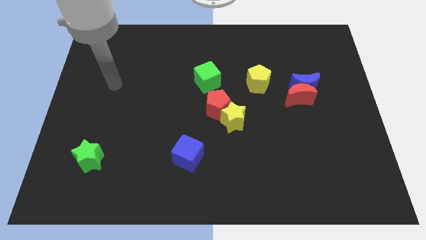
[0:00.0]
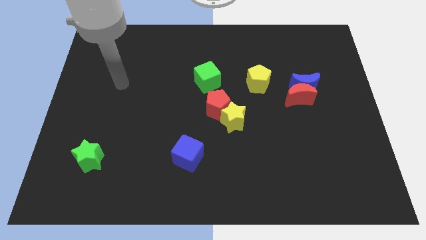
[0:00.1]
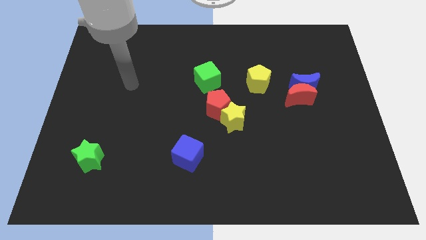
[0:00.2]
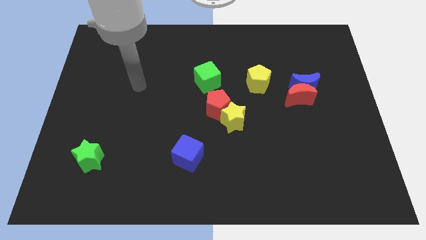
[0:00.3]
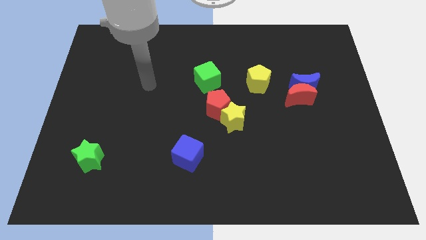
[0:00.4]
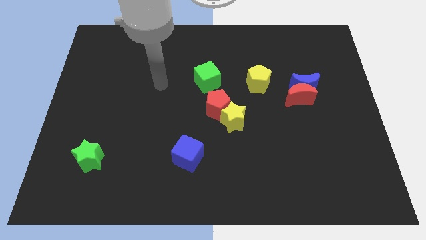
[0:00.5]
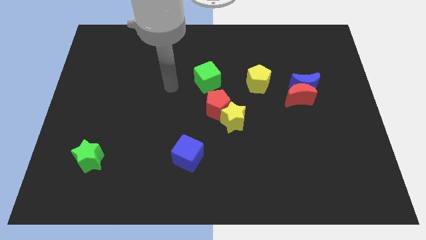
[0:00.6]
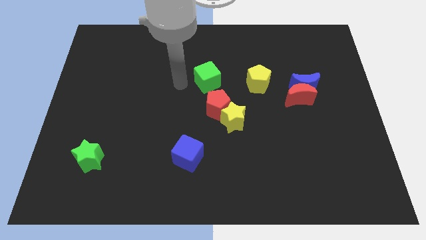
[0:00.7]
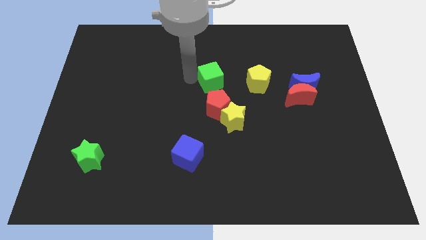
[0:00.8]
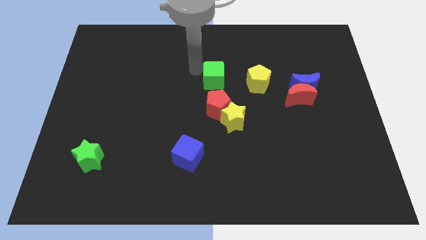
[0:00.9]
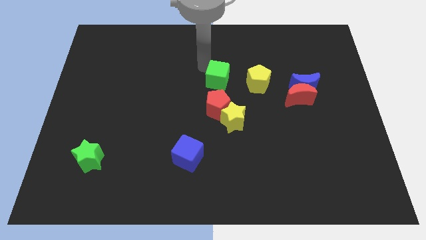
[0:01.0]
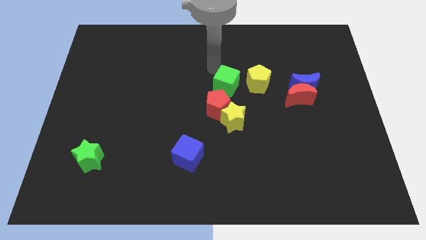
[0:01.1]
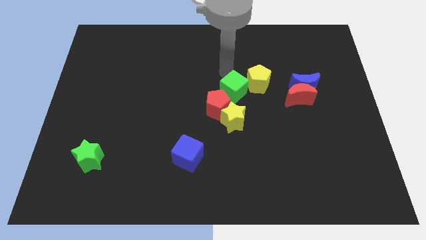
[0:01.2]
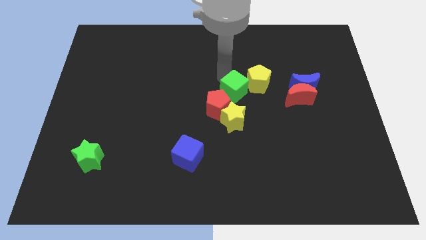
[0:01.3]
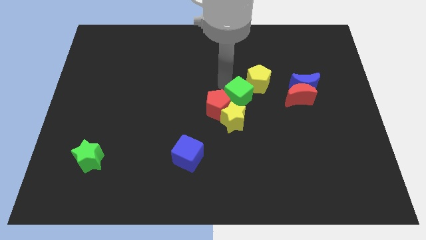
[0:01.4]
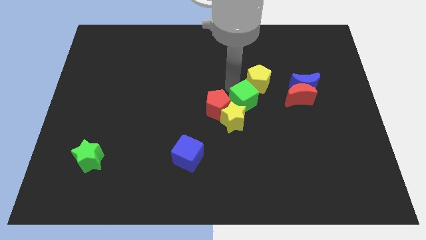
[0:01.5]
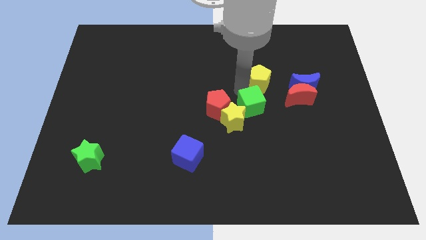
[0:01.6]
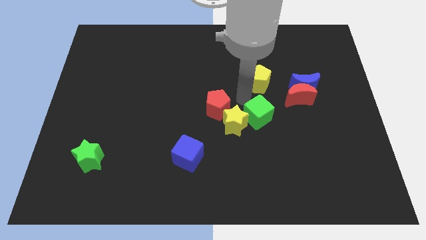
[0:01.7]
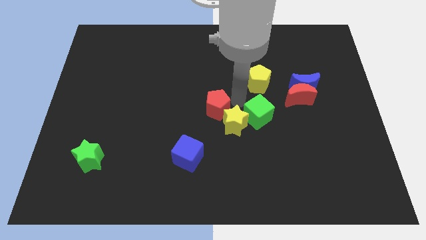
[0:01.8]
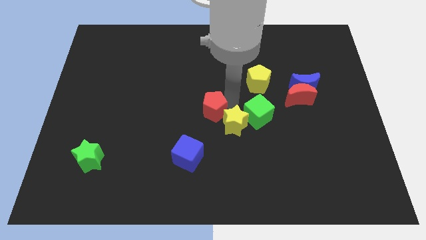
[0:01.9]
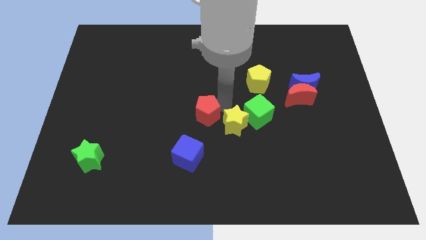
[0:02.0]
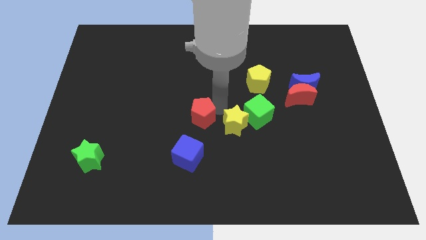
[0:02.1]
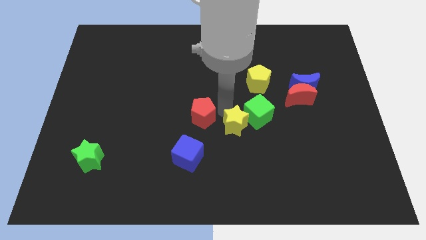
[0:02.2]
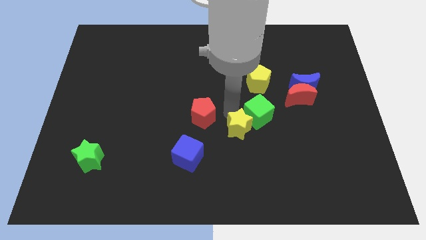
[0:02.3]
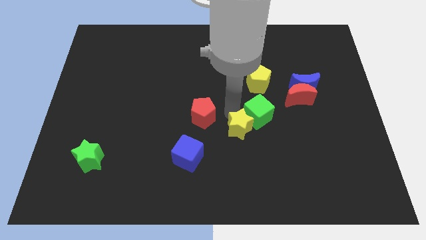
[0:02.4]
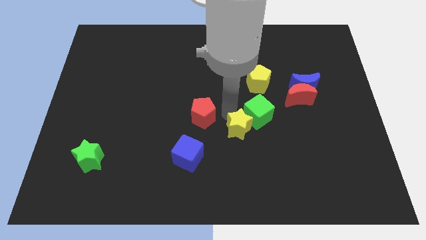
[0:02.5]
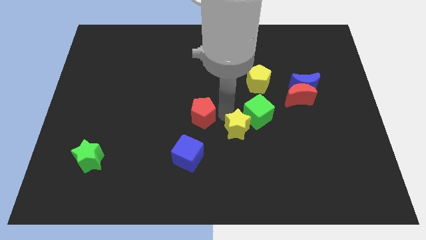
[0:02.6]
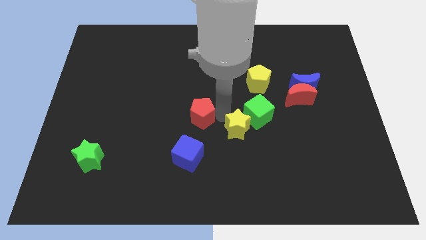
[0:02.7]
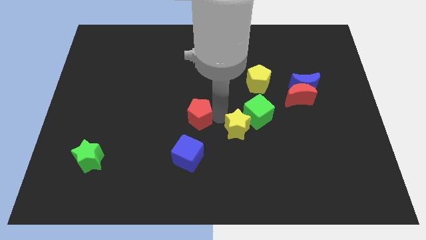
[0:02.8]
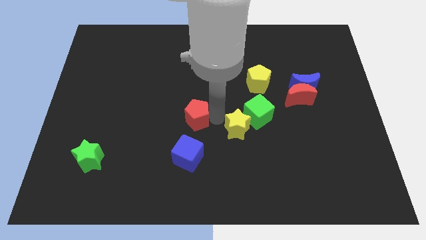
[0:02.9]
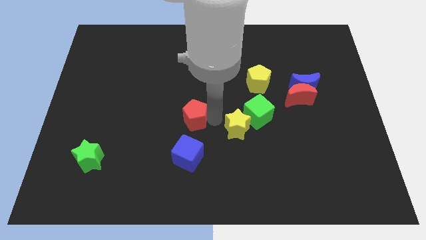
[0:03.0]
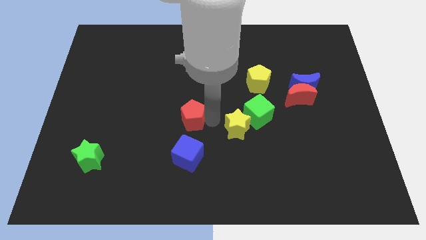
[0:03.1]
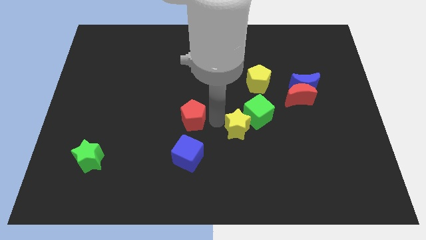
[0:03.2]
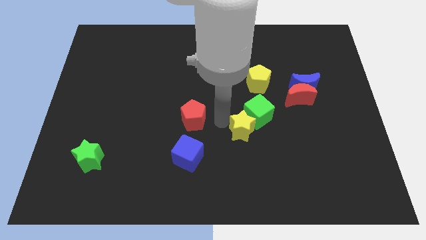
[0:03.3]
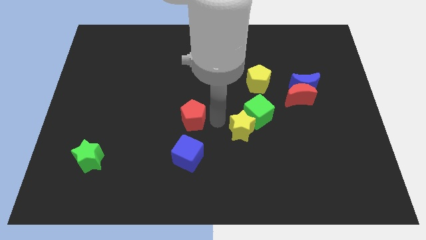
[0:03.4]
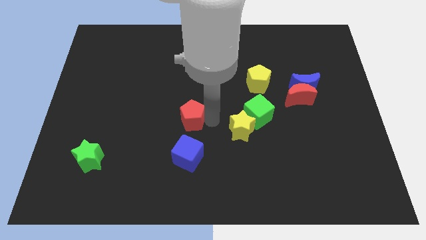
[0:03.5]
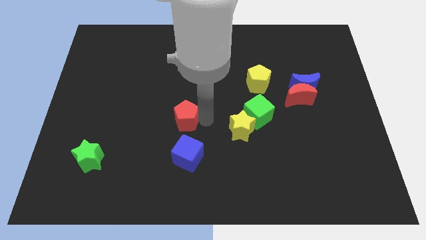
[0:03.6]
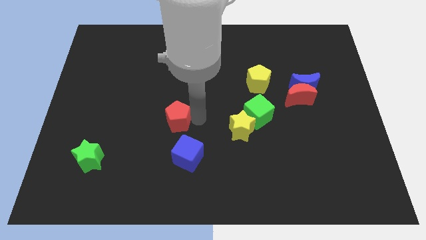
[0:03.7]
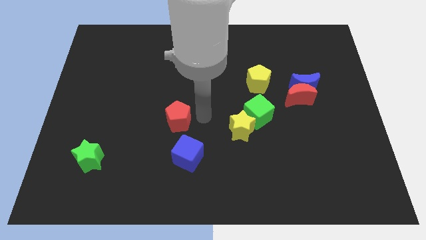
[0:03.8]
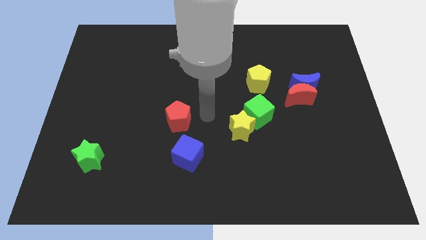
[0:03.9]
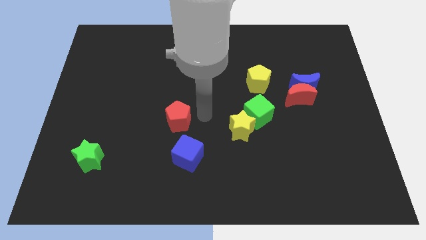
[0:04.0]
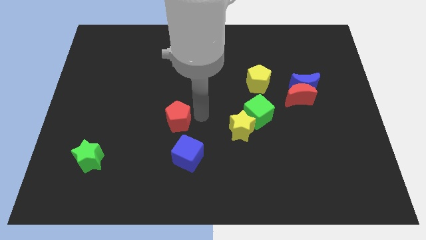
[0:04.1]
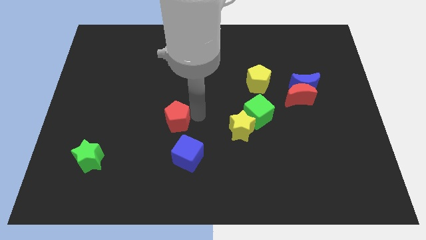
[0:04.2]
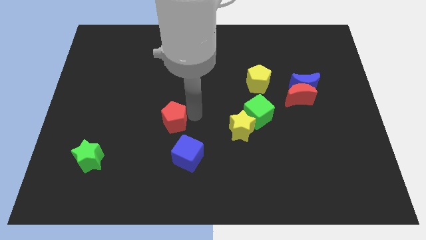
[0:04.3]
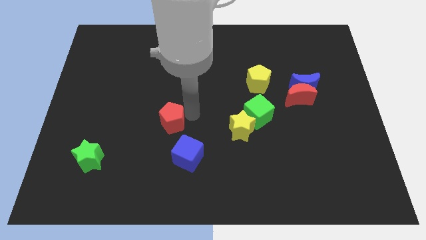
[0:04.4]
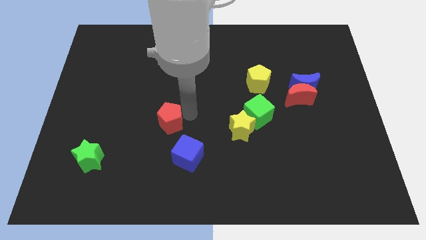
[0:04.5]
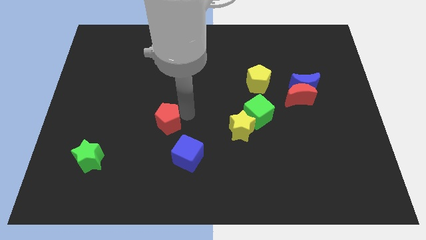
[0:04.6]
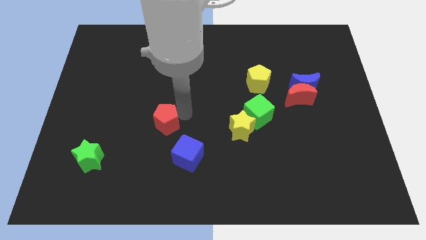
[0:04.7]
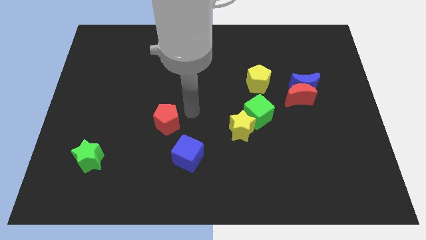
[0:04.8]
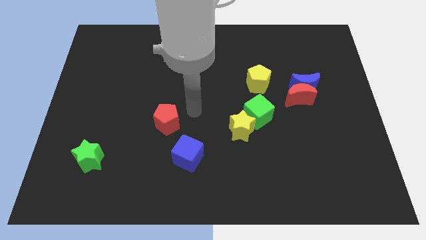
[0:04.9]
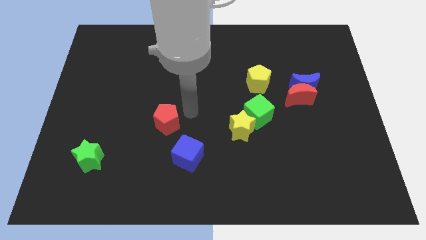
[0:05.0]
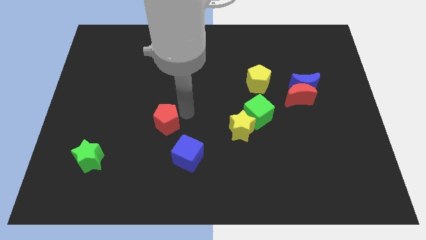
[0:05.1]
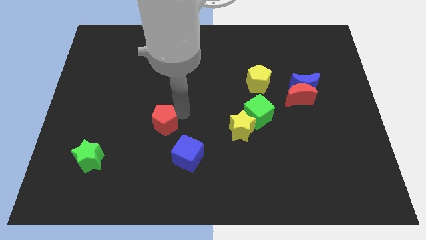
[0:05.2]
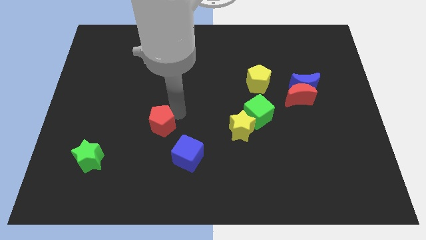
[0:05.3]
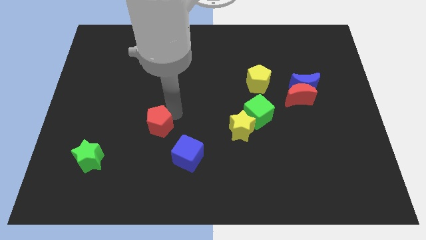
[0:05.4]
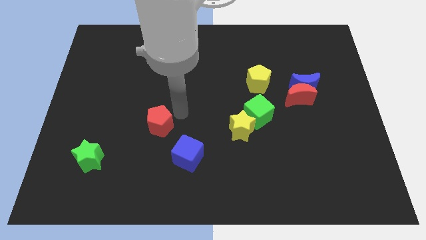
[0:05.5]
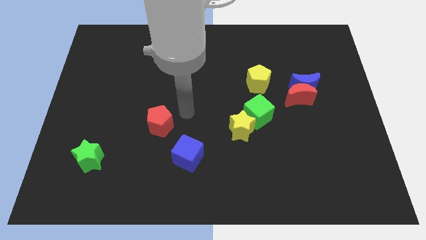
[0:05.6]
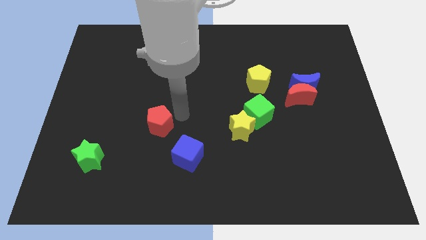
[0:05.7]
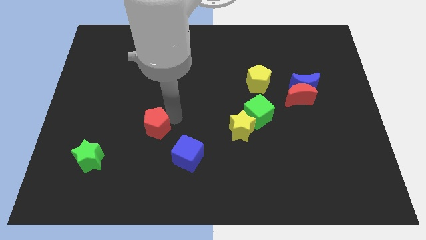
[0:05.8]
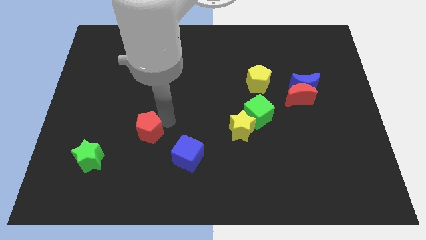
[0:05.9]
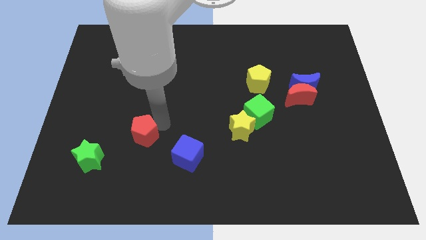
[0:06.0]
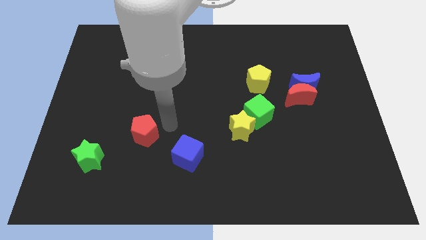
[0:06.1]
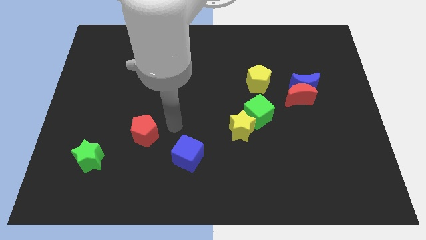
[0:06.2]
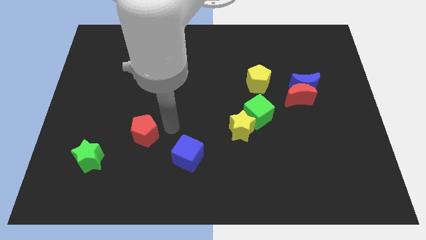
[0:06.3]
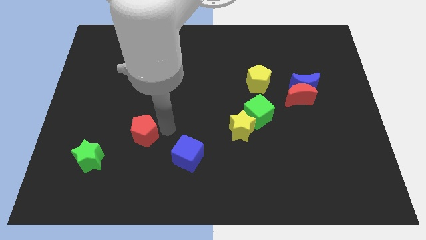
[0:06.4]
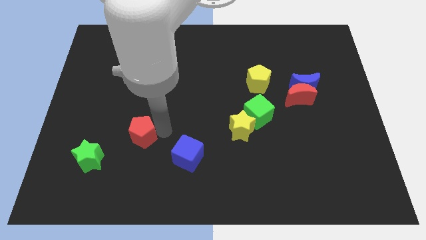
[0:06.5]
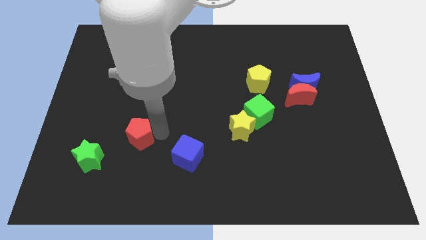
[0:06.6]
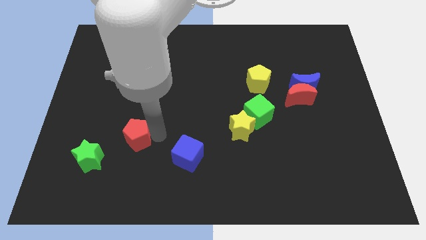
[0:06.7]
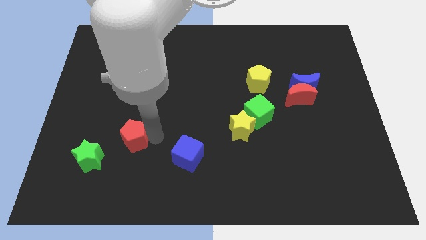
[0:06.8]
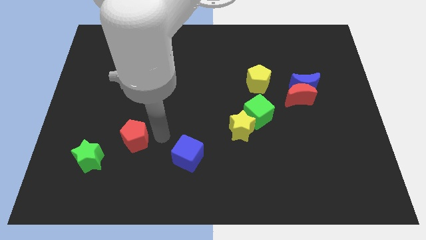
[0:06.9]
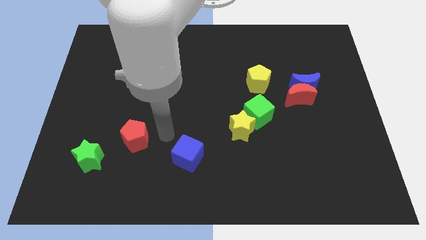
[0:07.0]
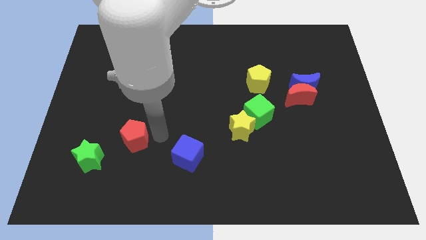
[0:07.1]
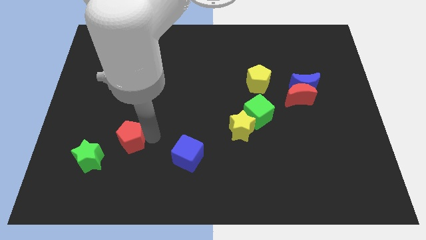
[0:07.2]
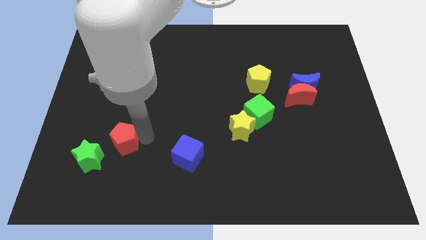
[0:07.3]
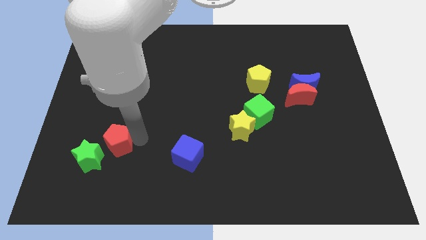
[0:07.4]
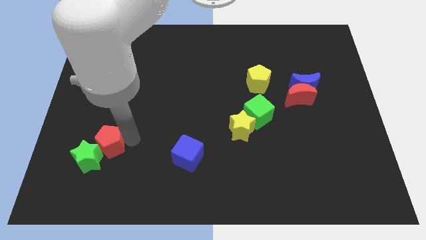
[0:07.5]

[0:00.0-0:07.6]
put the red pentagon close to the green star
